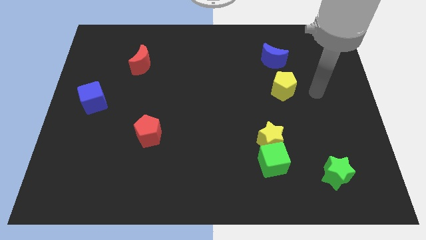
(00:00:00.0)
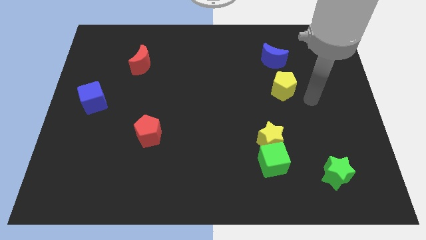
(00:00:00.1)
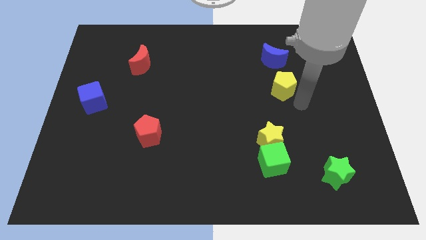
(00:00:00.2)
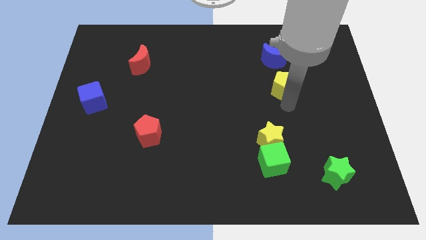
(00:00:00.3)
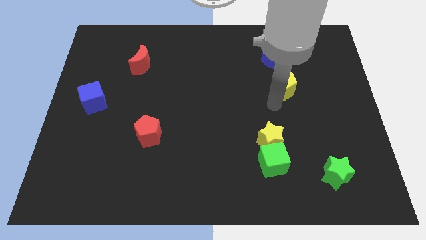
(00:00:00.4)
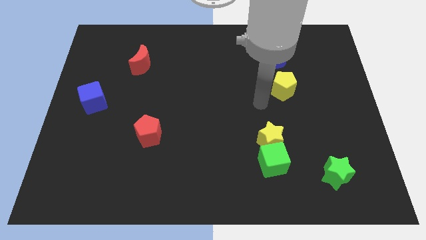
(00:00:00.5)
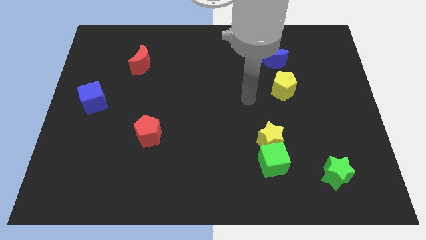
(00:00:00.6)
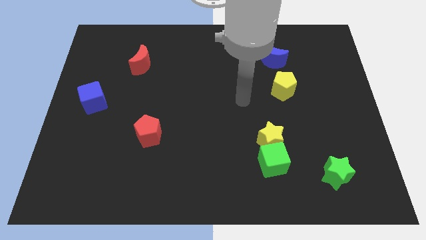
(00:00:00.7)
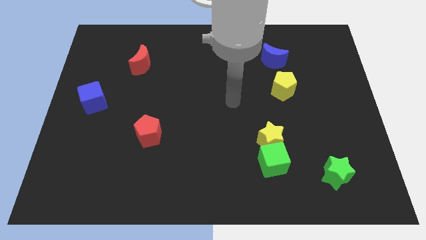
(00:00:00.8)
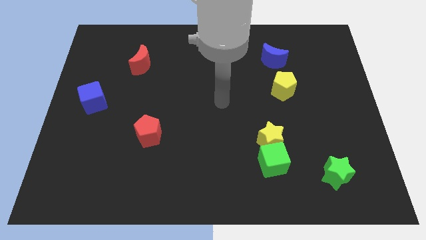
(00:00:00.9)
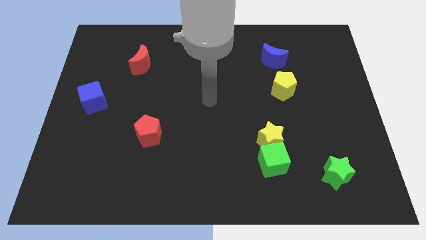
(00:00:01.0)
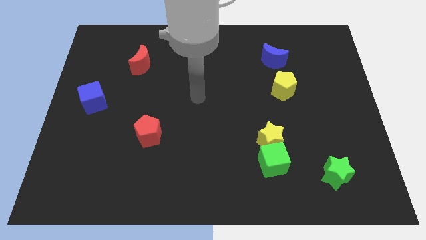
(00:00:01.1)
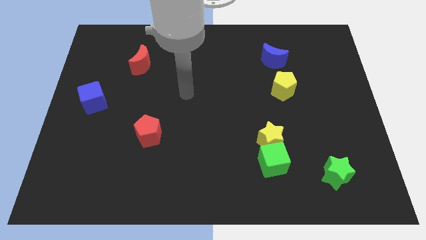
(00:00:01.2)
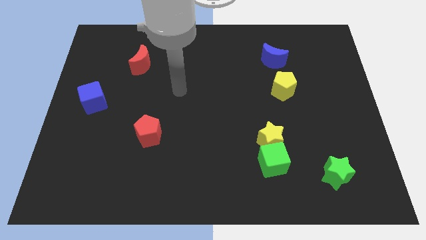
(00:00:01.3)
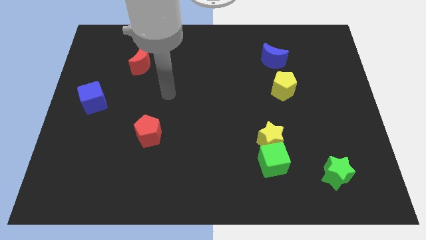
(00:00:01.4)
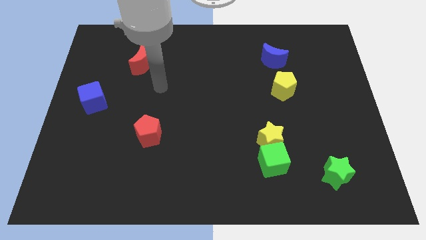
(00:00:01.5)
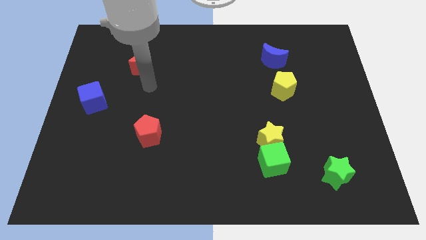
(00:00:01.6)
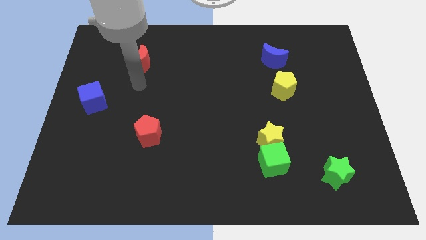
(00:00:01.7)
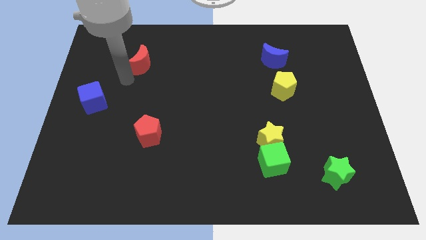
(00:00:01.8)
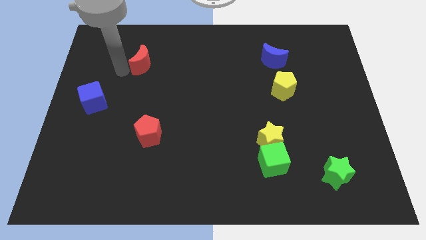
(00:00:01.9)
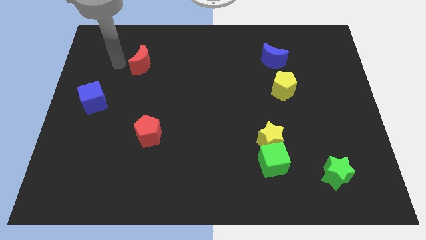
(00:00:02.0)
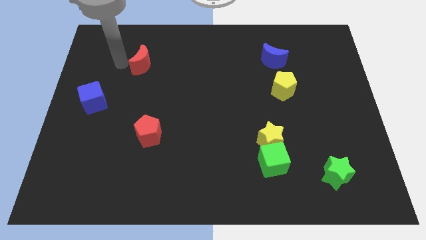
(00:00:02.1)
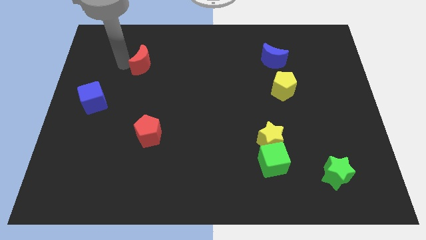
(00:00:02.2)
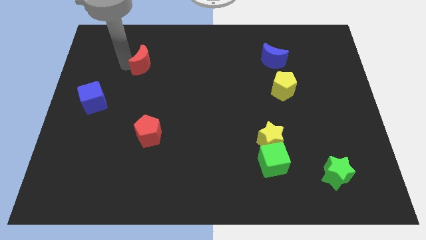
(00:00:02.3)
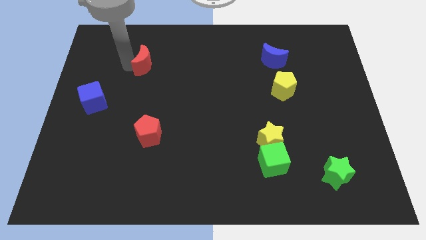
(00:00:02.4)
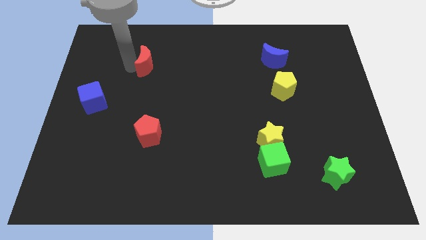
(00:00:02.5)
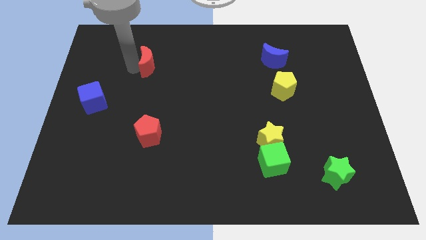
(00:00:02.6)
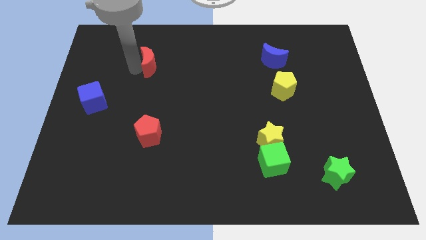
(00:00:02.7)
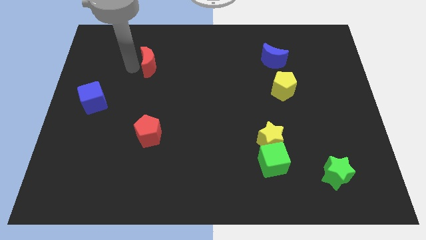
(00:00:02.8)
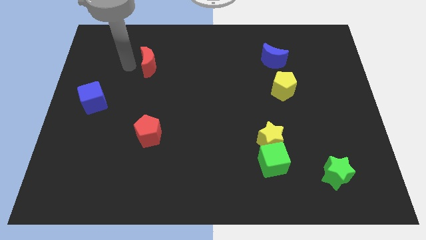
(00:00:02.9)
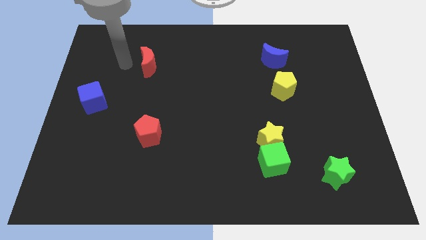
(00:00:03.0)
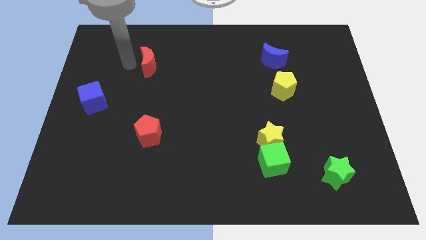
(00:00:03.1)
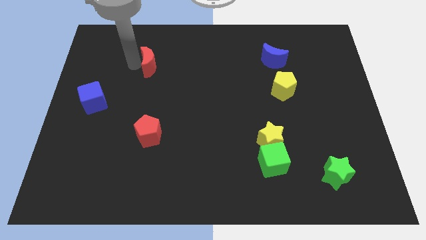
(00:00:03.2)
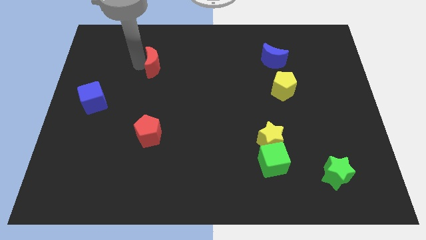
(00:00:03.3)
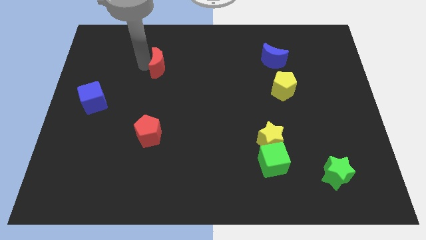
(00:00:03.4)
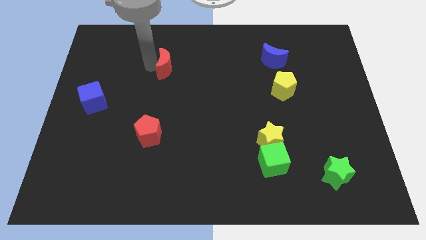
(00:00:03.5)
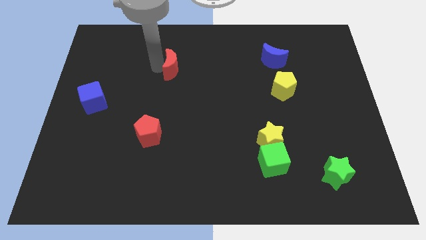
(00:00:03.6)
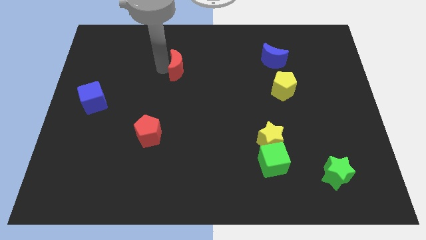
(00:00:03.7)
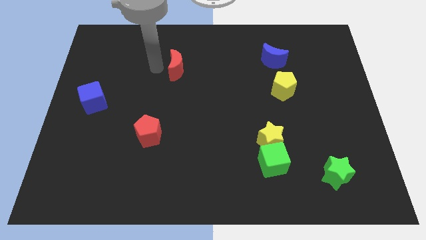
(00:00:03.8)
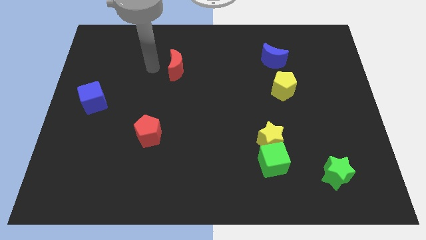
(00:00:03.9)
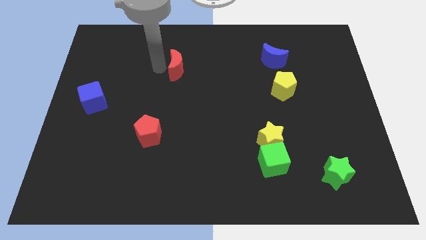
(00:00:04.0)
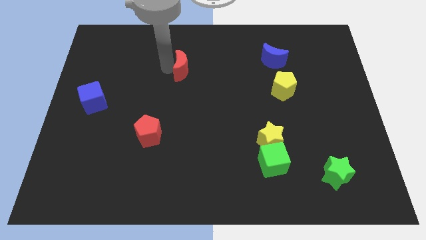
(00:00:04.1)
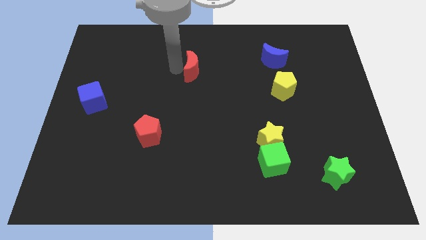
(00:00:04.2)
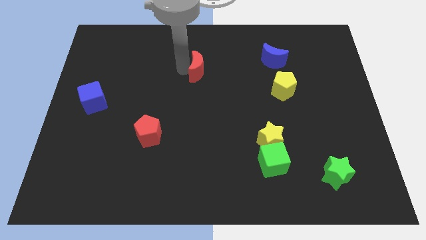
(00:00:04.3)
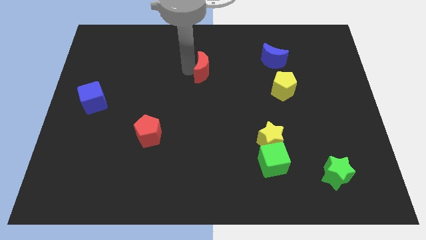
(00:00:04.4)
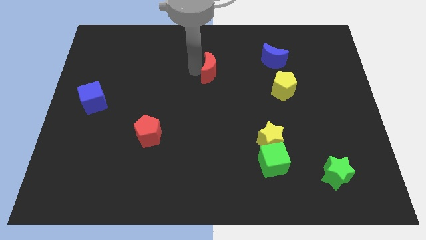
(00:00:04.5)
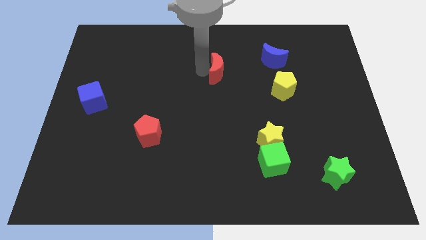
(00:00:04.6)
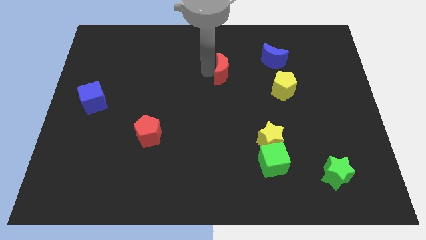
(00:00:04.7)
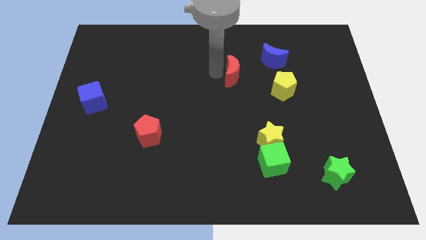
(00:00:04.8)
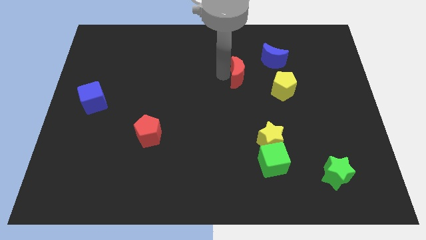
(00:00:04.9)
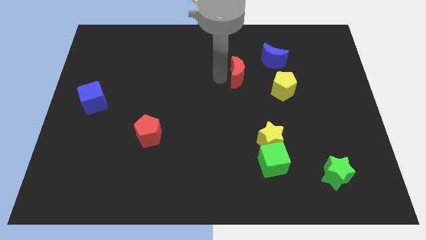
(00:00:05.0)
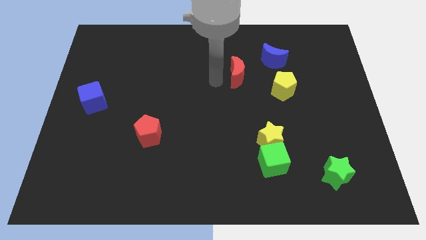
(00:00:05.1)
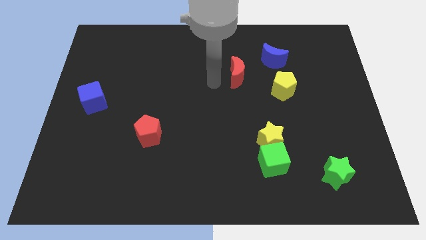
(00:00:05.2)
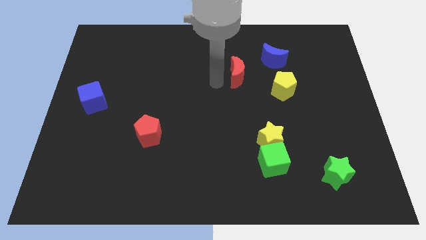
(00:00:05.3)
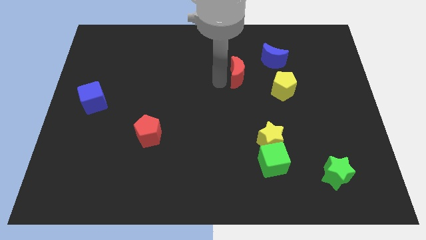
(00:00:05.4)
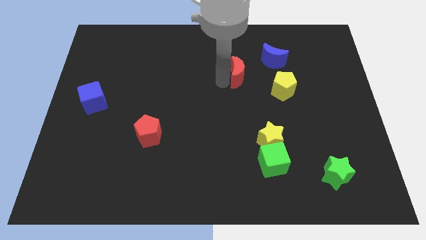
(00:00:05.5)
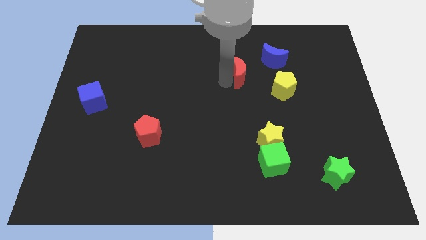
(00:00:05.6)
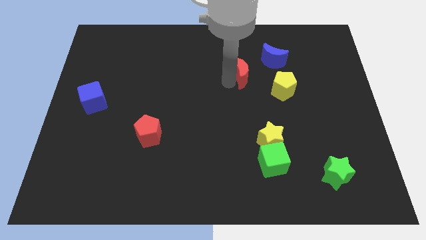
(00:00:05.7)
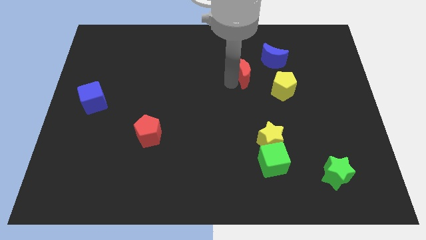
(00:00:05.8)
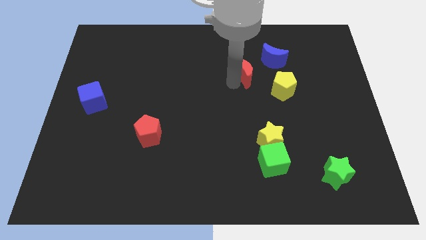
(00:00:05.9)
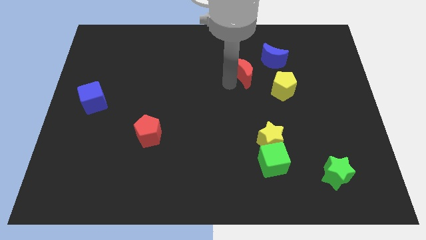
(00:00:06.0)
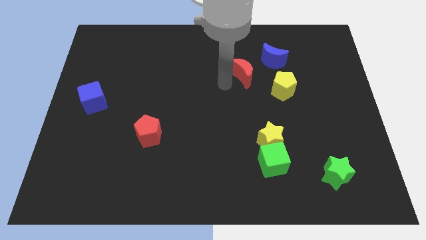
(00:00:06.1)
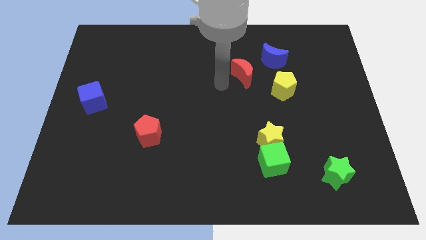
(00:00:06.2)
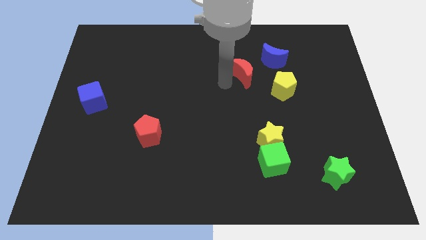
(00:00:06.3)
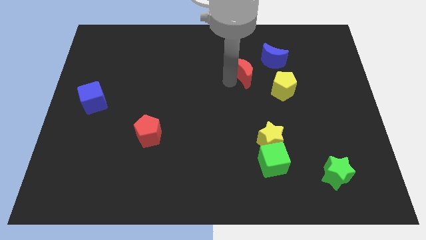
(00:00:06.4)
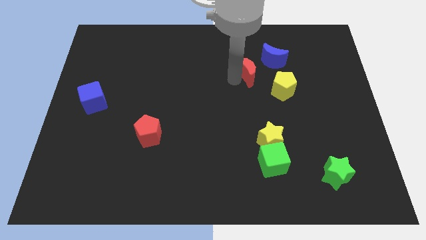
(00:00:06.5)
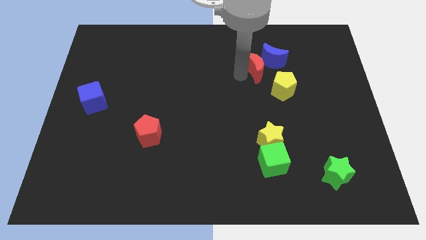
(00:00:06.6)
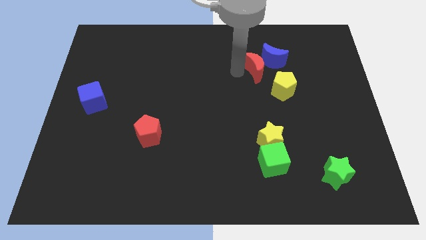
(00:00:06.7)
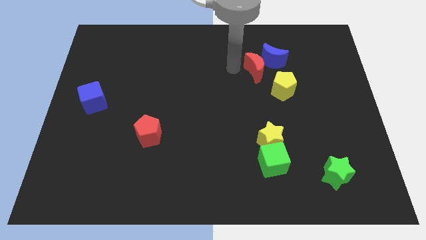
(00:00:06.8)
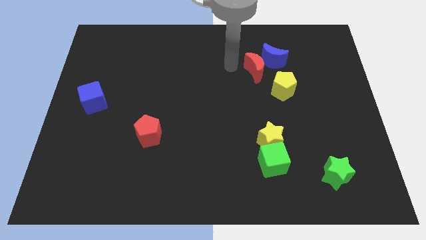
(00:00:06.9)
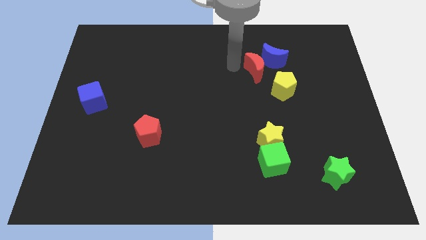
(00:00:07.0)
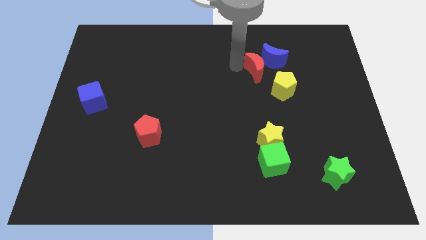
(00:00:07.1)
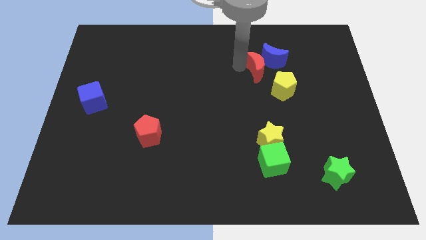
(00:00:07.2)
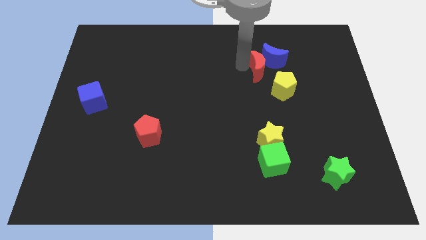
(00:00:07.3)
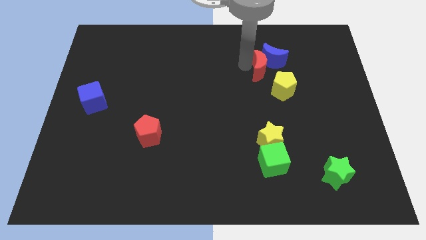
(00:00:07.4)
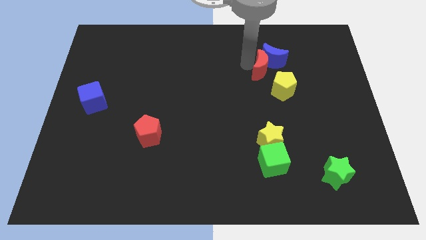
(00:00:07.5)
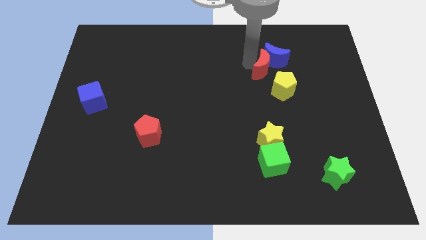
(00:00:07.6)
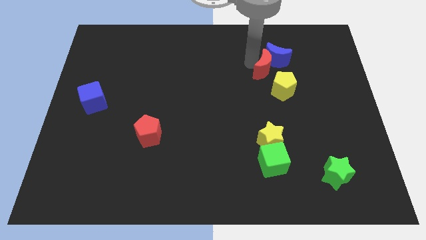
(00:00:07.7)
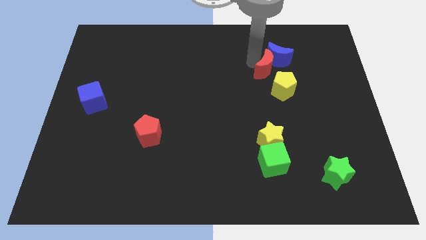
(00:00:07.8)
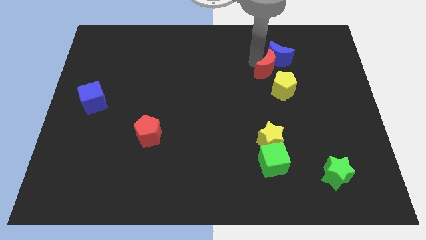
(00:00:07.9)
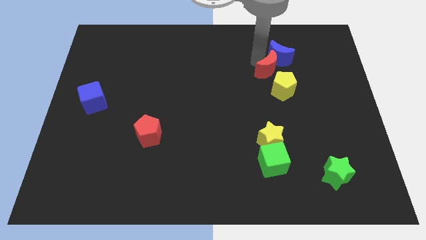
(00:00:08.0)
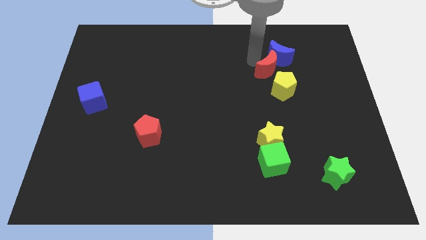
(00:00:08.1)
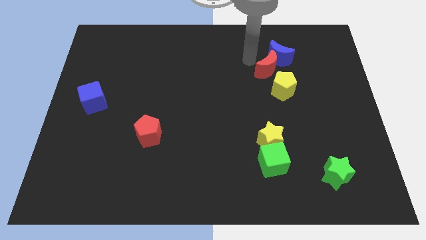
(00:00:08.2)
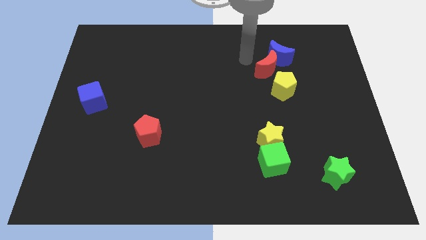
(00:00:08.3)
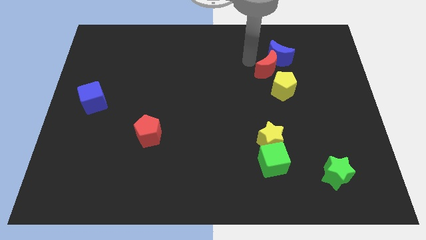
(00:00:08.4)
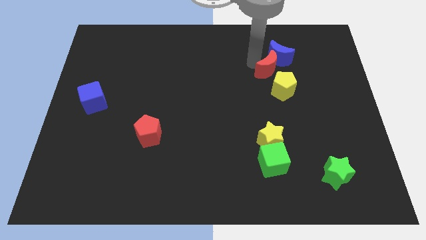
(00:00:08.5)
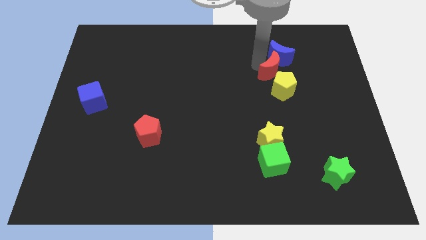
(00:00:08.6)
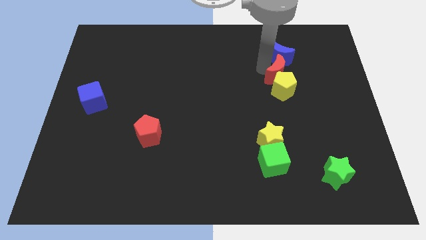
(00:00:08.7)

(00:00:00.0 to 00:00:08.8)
move the red moon to the top right side of the yellow pentagon
